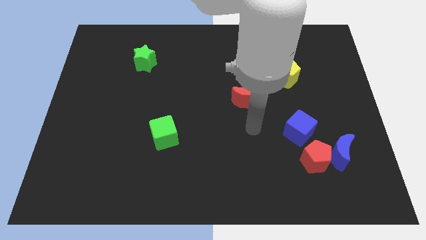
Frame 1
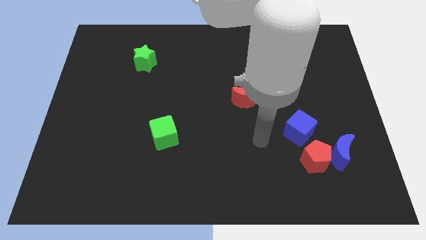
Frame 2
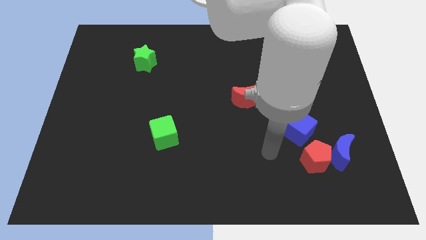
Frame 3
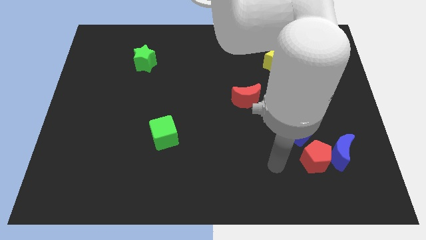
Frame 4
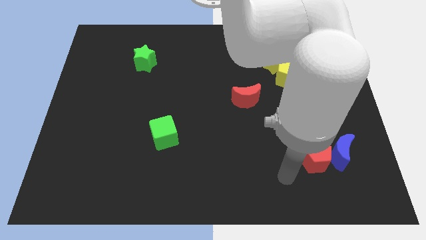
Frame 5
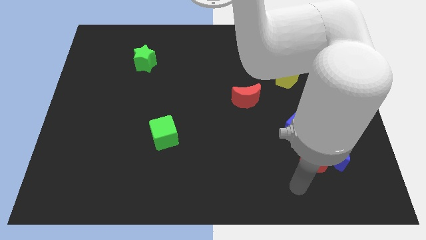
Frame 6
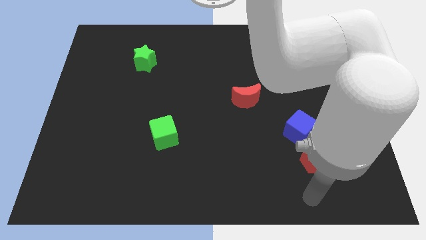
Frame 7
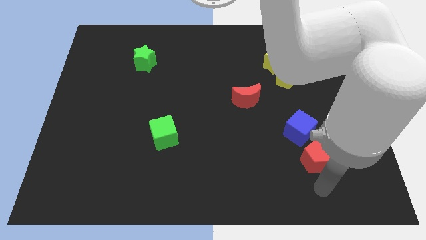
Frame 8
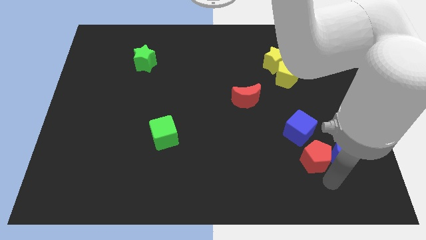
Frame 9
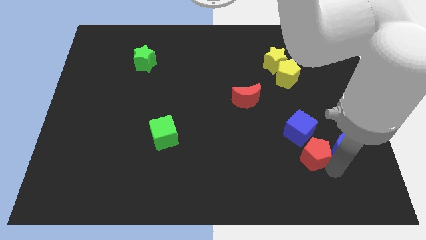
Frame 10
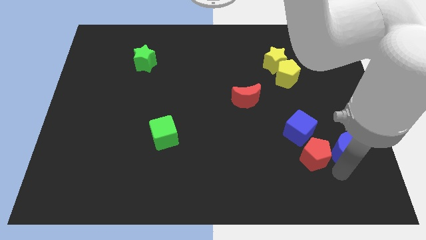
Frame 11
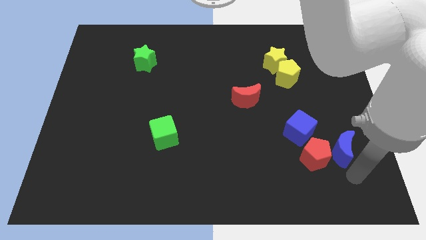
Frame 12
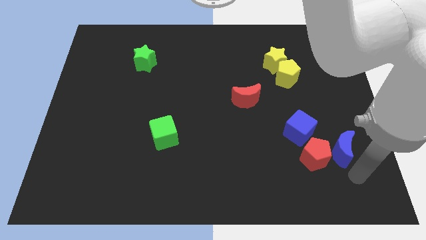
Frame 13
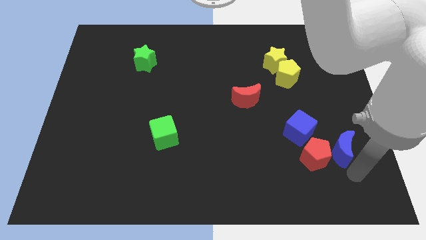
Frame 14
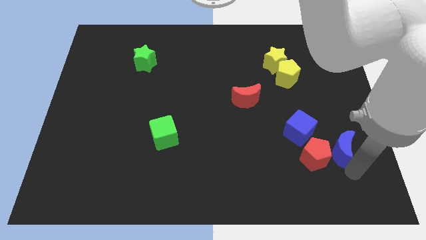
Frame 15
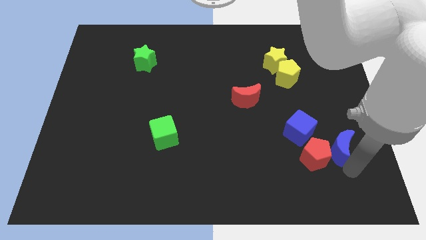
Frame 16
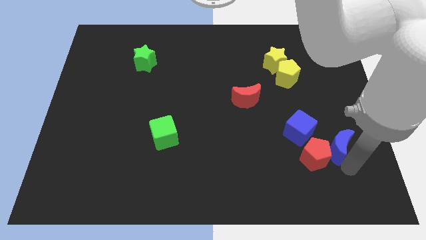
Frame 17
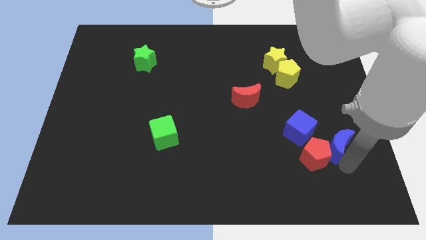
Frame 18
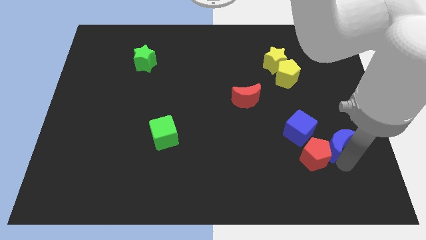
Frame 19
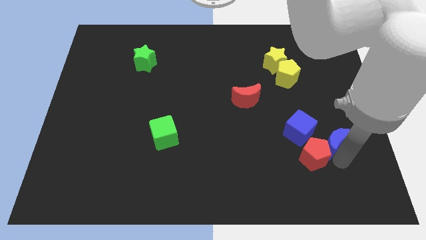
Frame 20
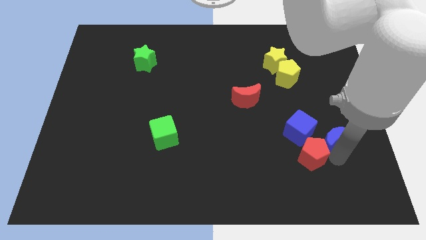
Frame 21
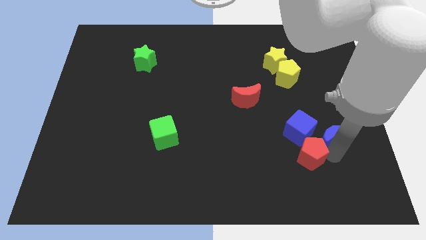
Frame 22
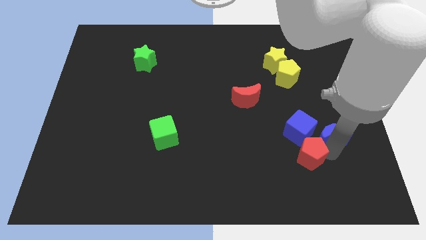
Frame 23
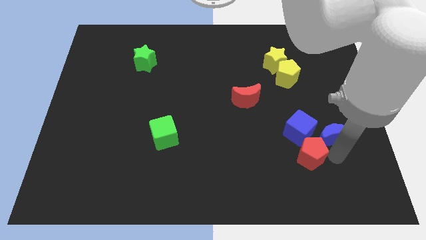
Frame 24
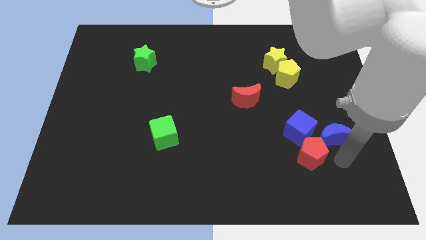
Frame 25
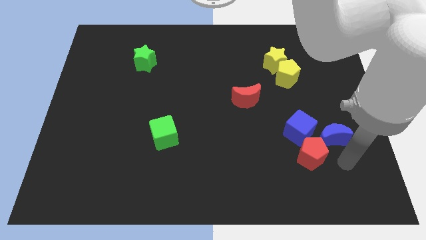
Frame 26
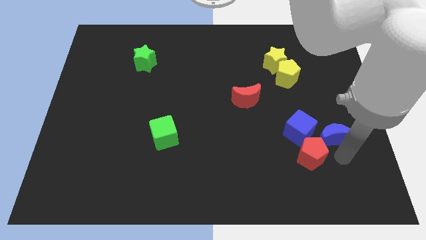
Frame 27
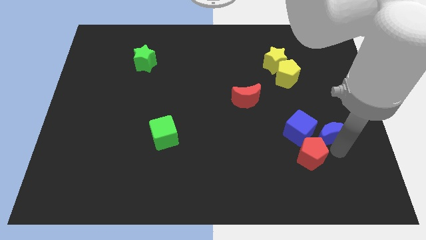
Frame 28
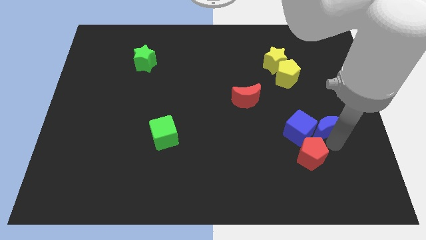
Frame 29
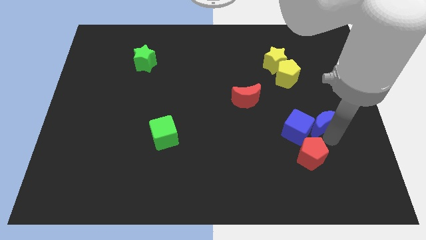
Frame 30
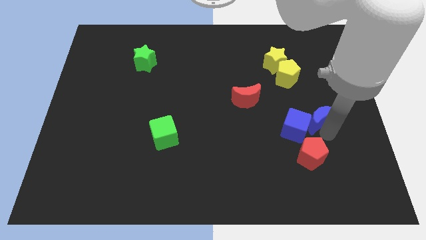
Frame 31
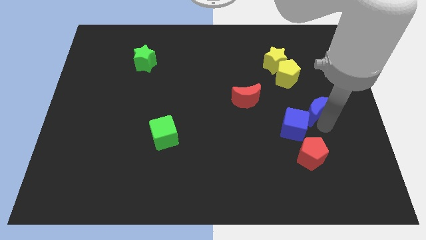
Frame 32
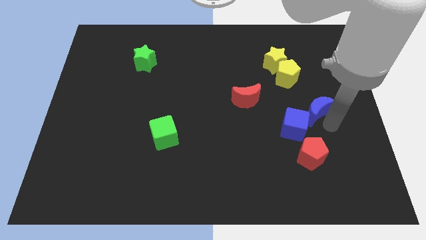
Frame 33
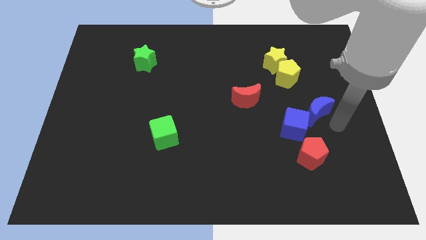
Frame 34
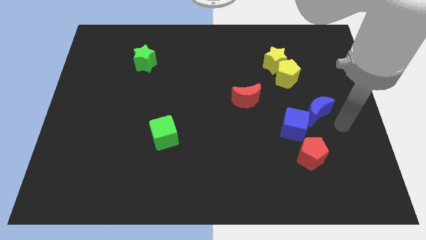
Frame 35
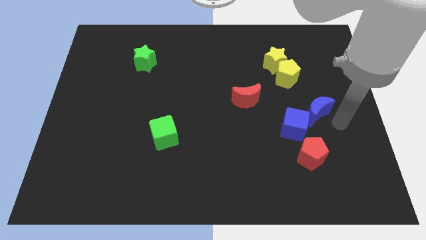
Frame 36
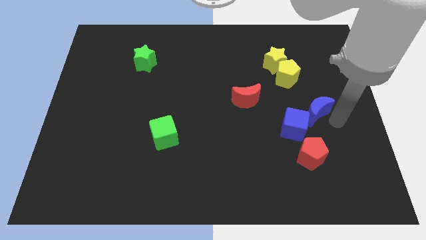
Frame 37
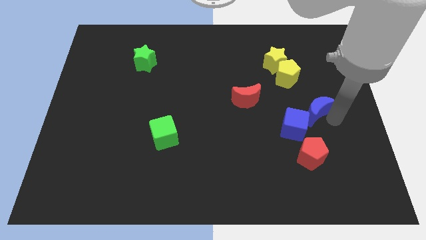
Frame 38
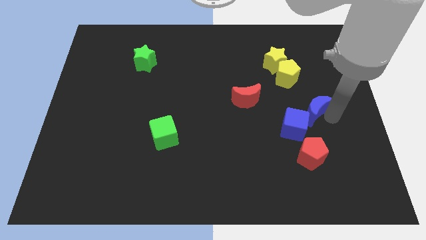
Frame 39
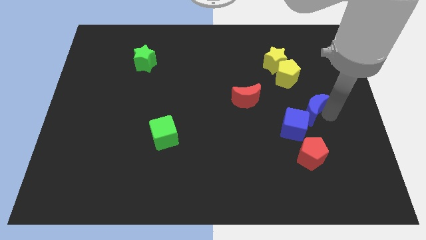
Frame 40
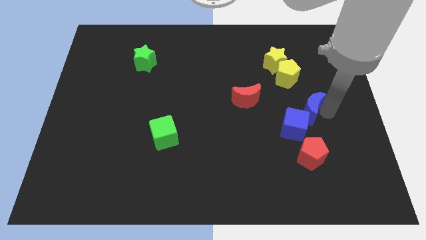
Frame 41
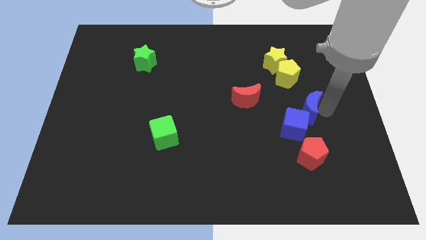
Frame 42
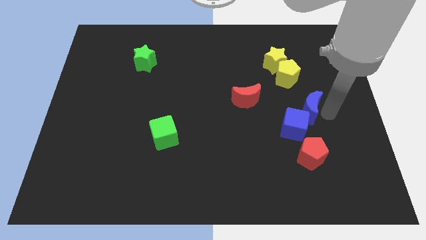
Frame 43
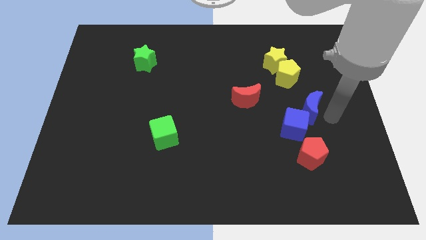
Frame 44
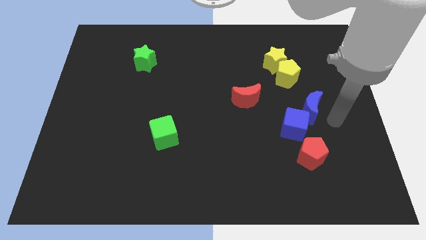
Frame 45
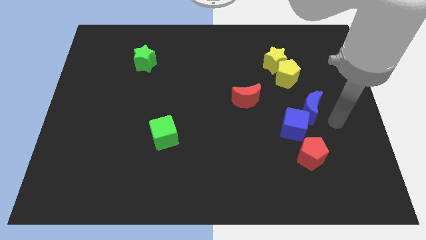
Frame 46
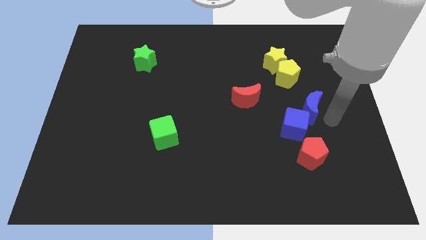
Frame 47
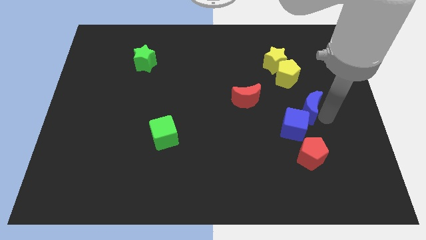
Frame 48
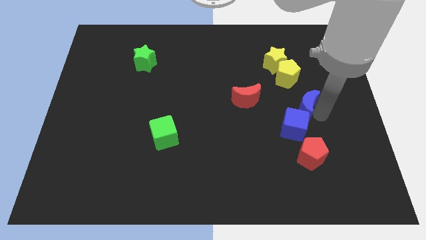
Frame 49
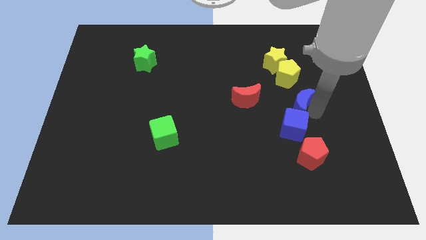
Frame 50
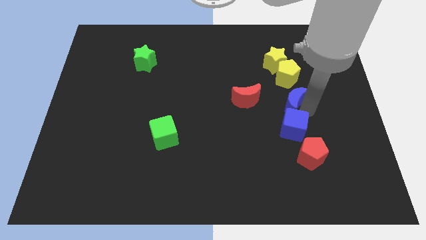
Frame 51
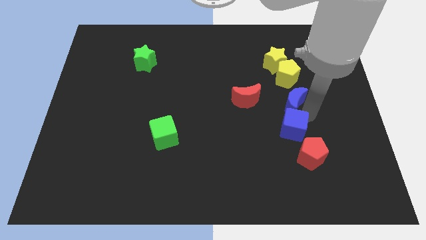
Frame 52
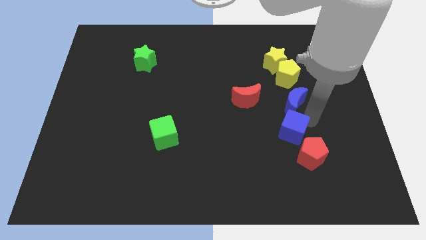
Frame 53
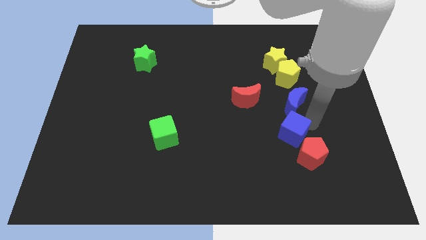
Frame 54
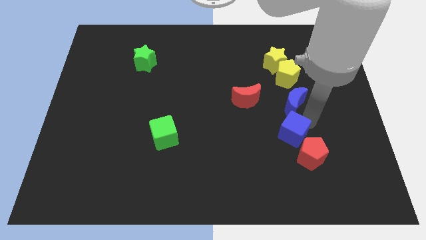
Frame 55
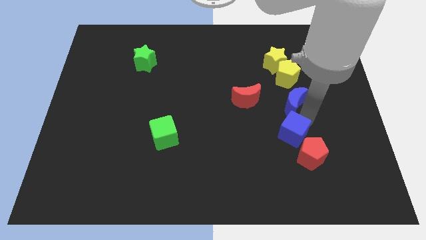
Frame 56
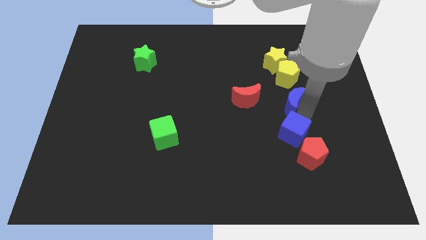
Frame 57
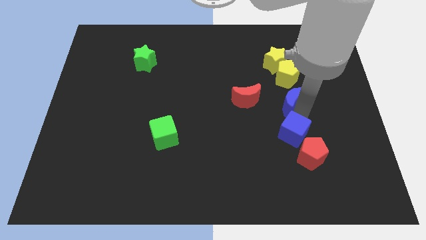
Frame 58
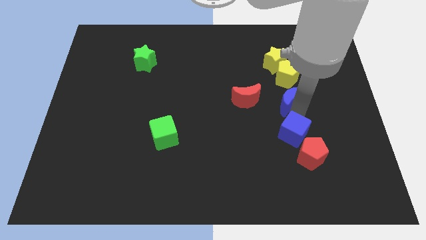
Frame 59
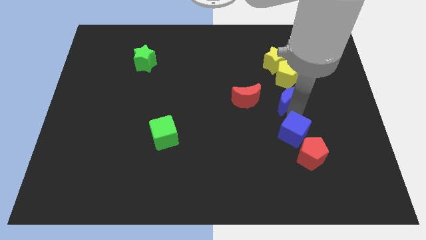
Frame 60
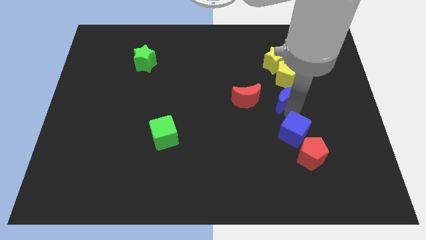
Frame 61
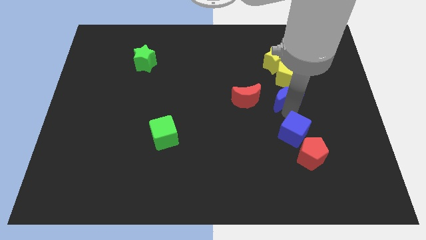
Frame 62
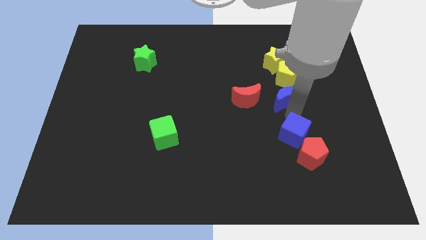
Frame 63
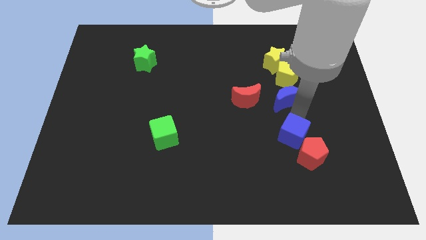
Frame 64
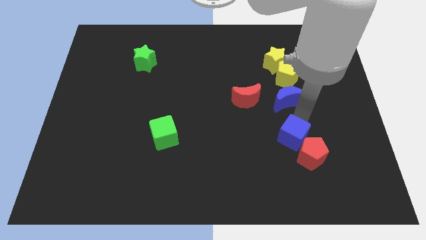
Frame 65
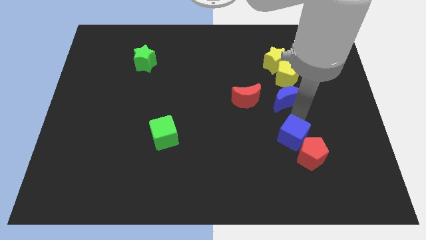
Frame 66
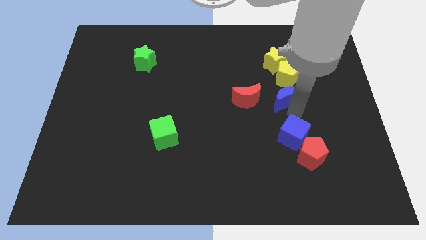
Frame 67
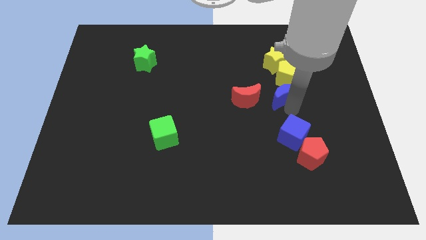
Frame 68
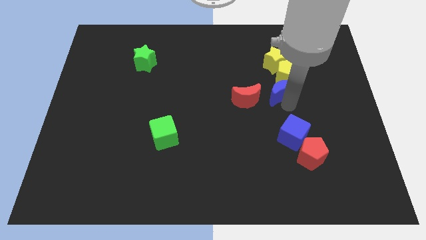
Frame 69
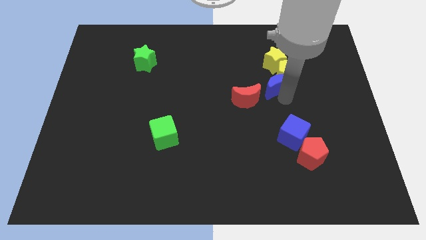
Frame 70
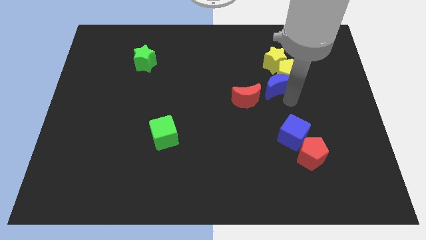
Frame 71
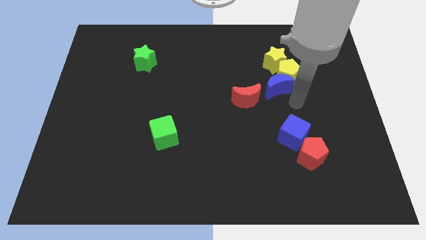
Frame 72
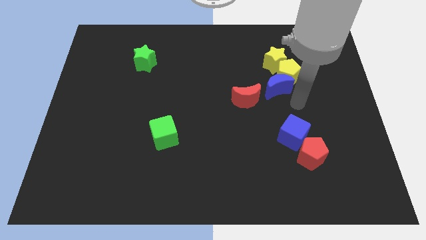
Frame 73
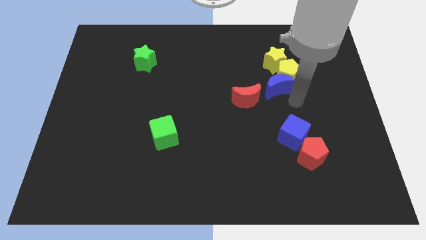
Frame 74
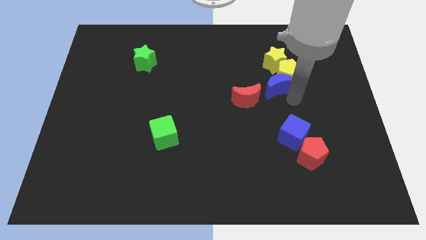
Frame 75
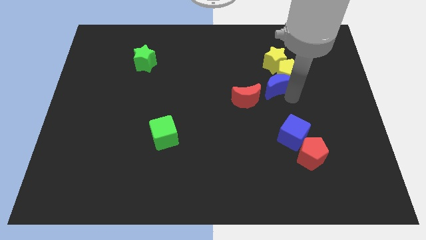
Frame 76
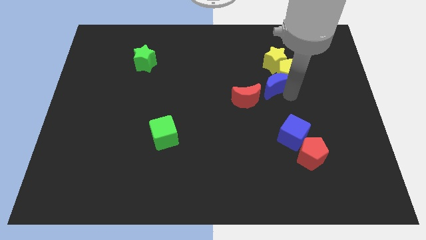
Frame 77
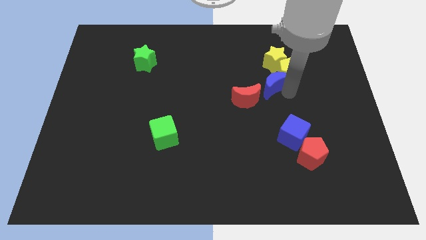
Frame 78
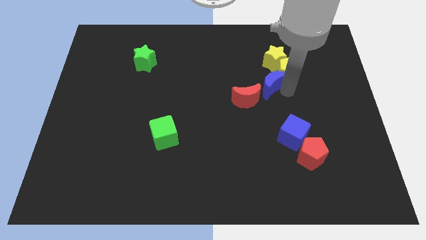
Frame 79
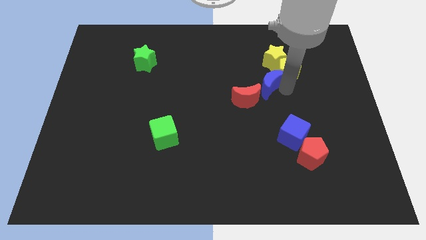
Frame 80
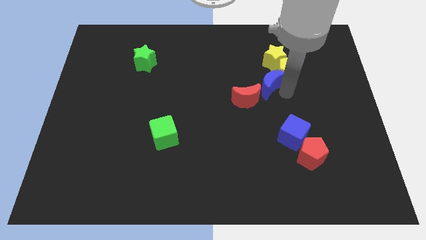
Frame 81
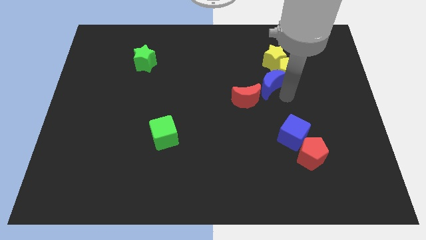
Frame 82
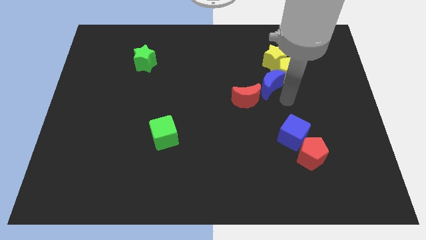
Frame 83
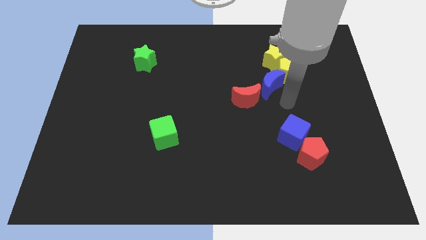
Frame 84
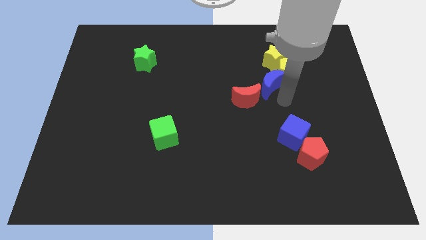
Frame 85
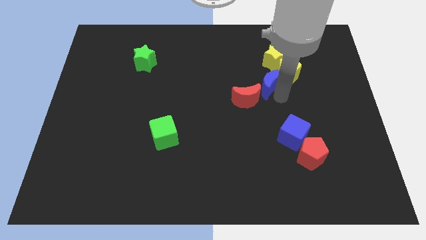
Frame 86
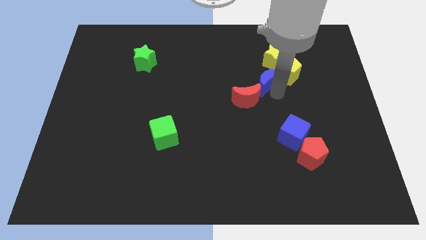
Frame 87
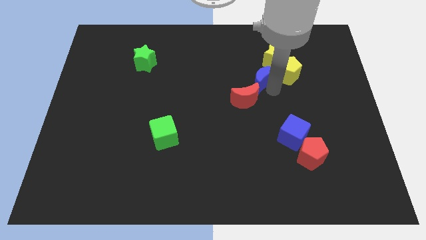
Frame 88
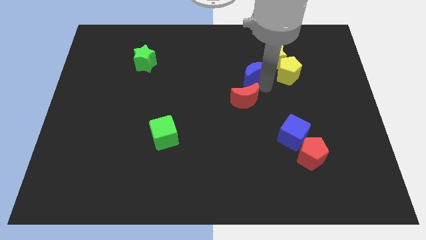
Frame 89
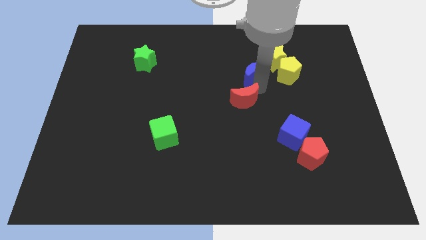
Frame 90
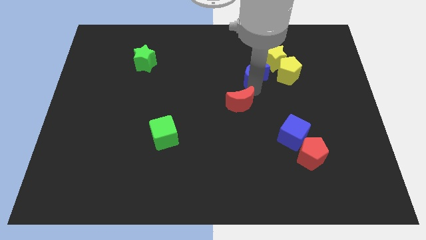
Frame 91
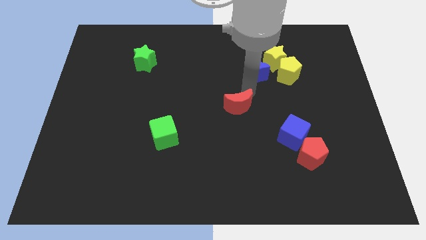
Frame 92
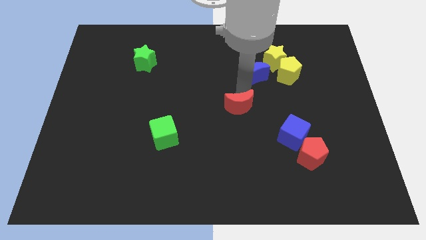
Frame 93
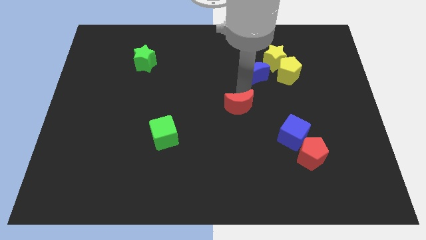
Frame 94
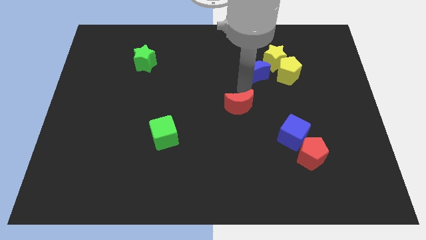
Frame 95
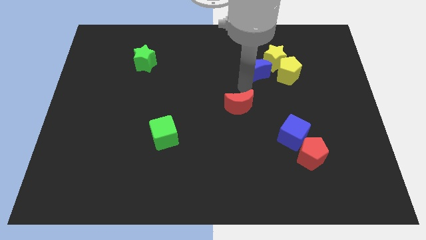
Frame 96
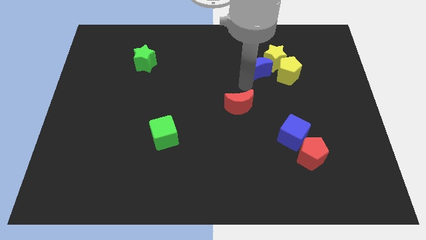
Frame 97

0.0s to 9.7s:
slide the blue moon diagonally up and to the left of the yellow pentagon
